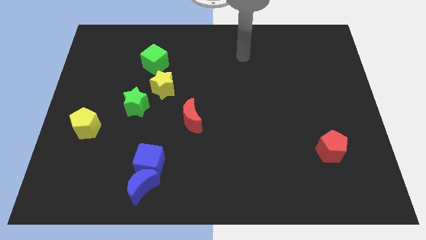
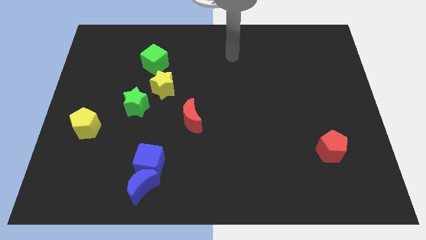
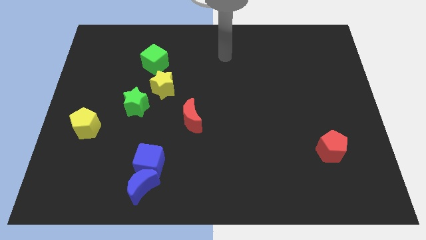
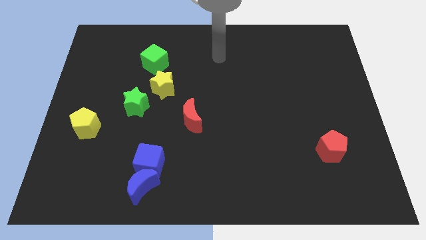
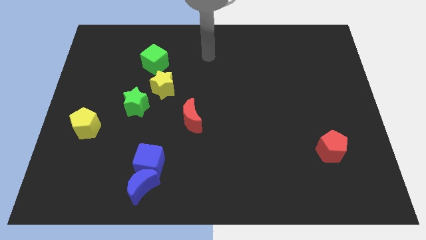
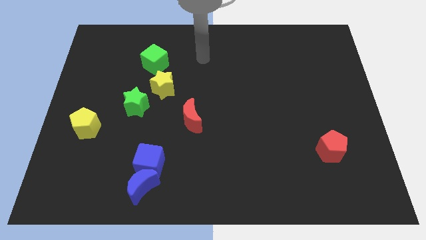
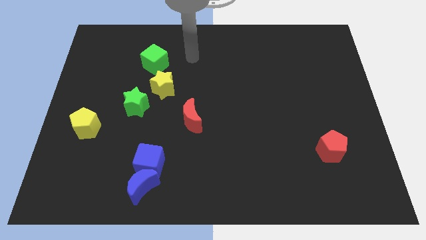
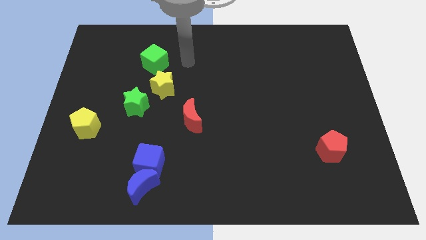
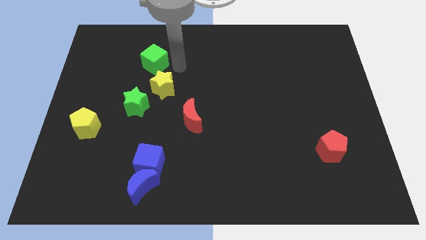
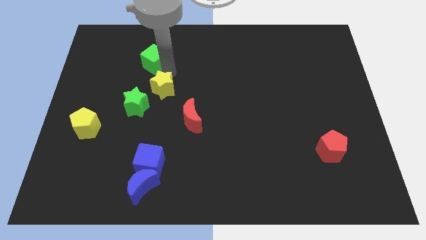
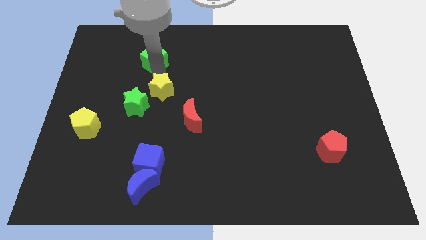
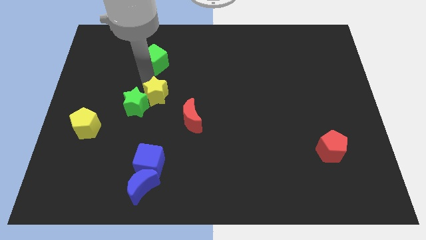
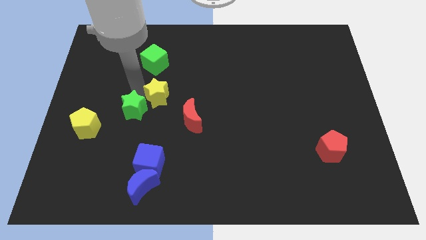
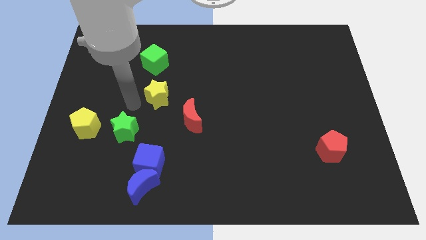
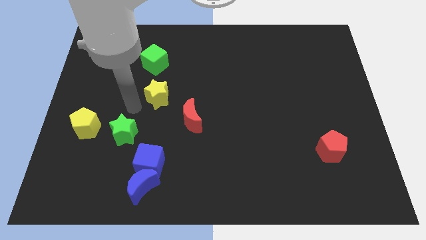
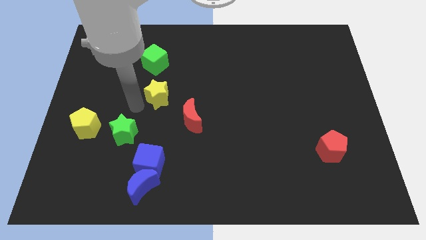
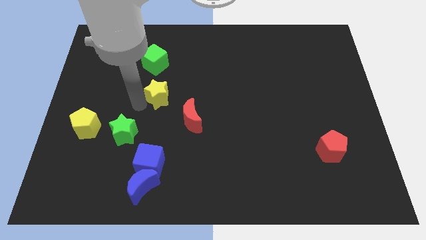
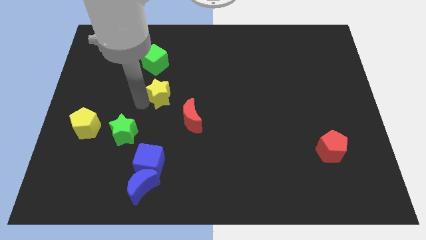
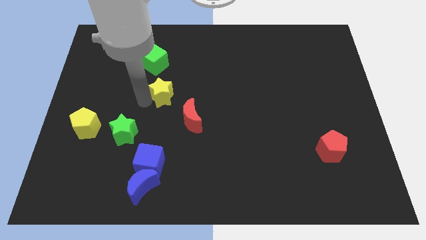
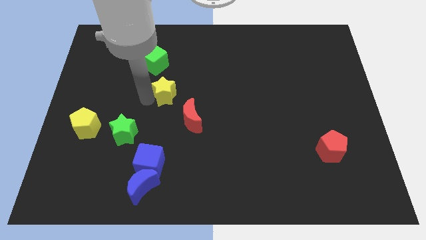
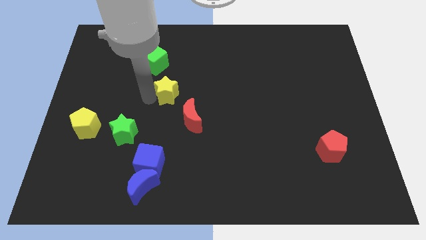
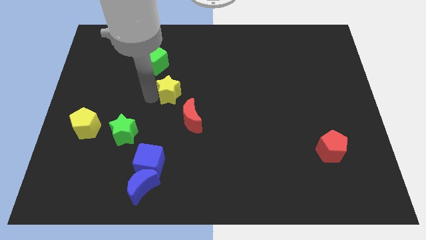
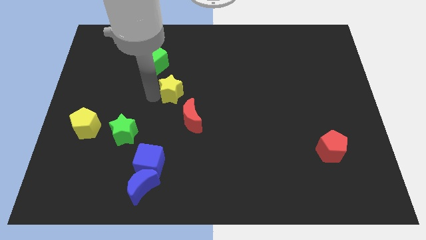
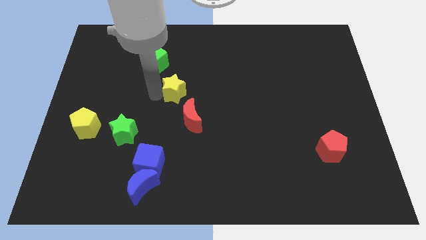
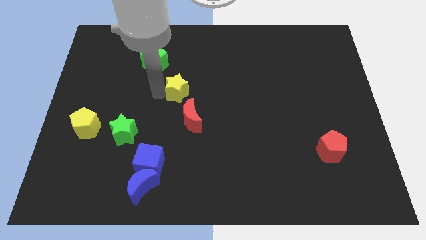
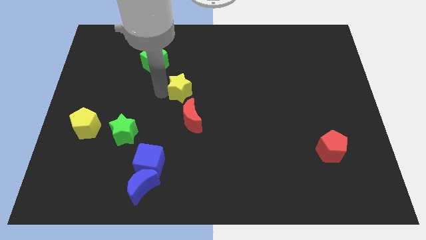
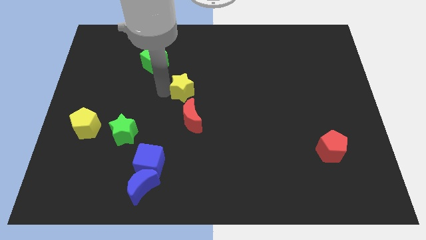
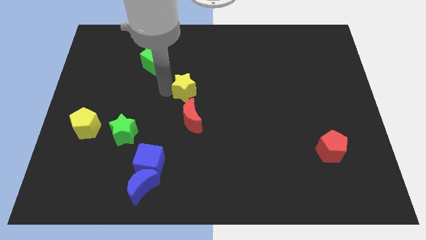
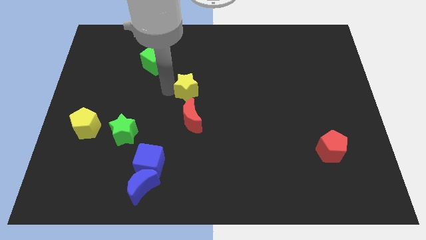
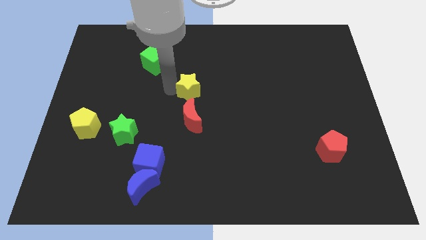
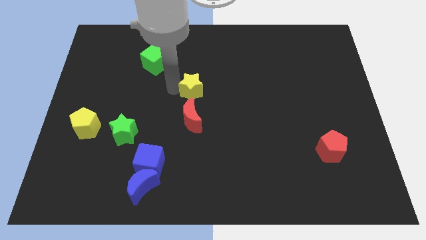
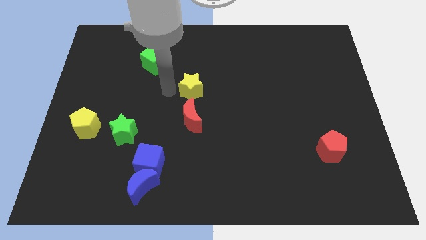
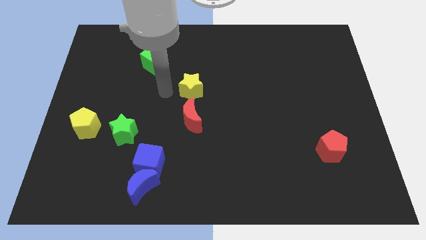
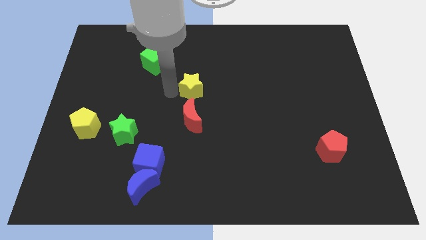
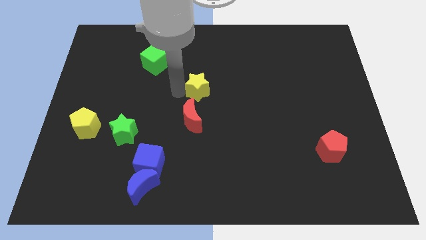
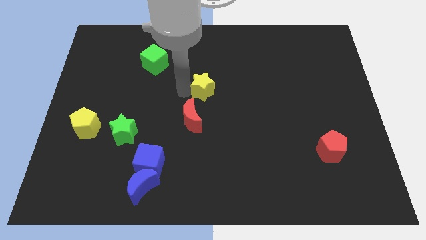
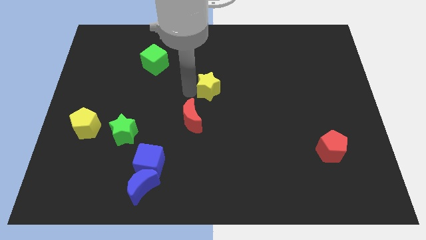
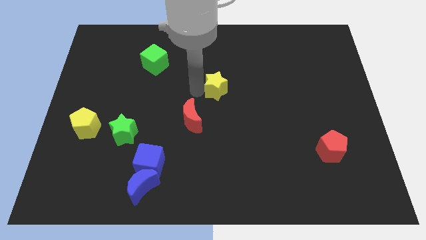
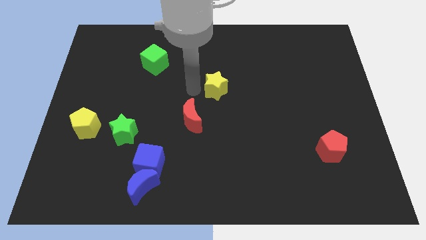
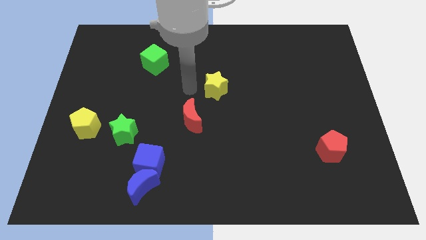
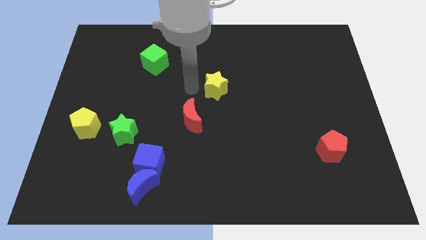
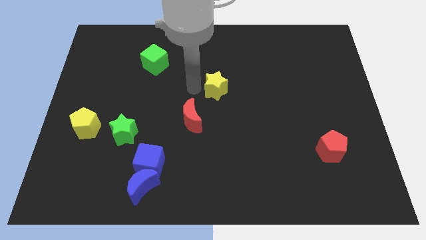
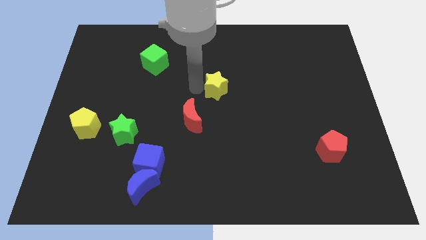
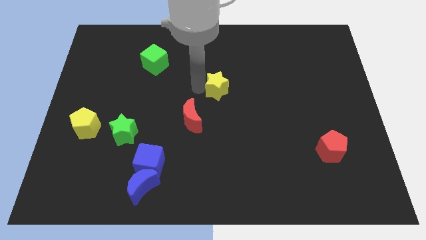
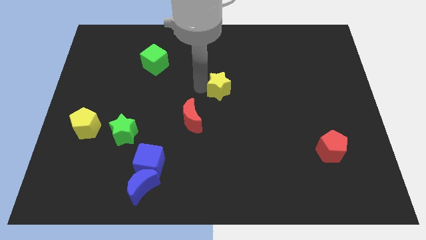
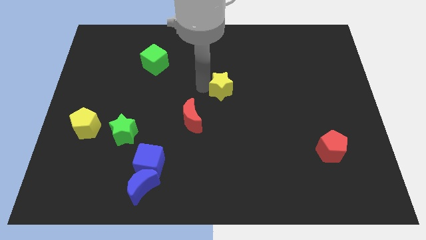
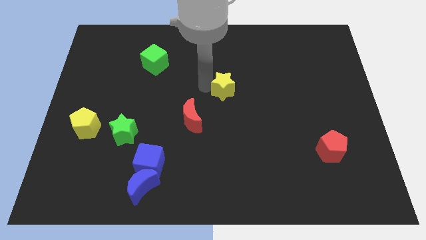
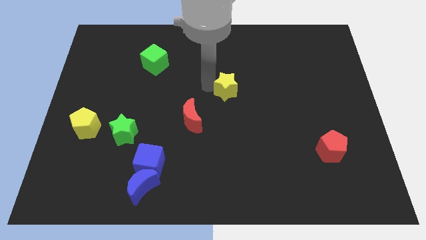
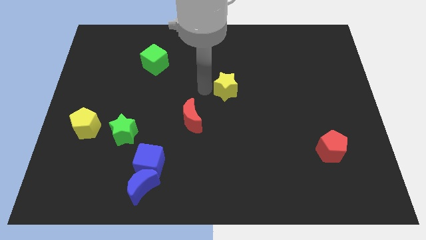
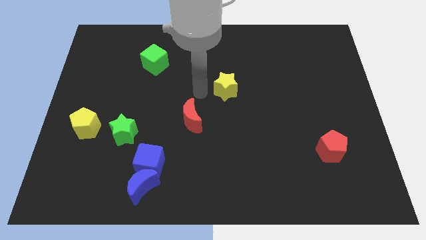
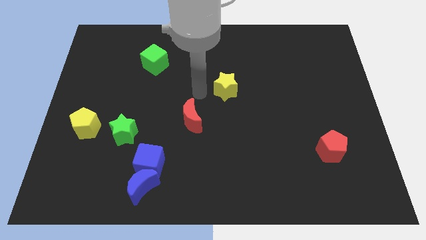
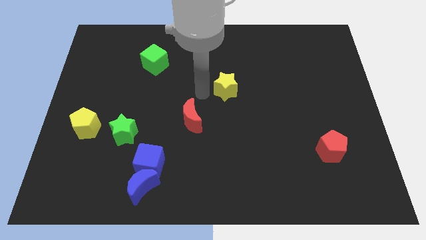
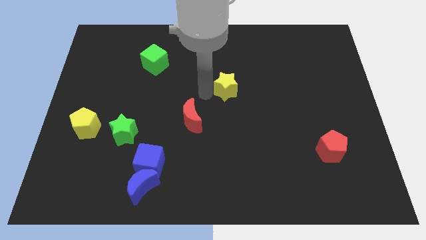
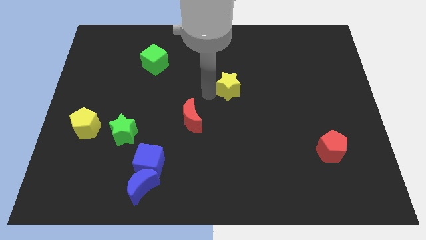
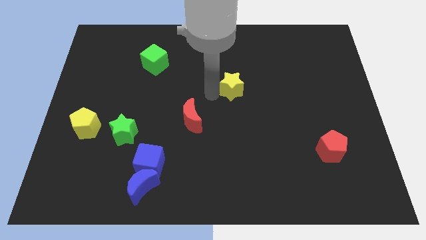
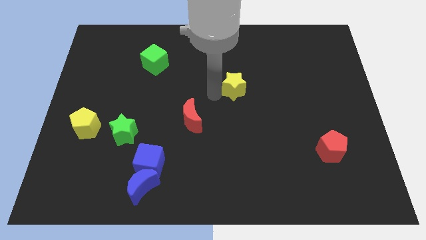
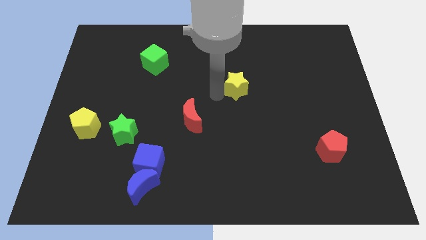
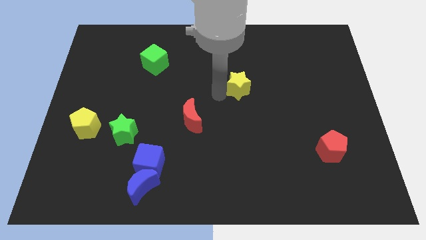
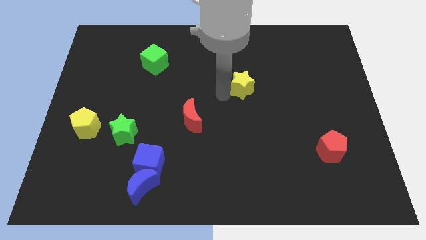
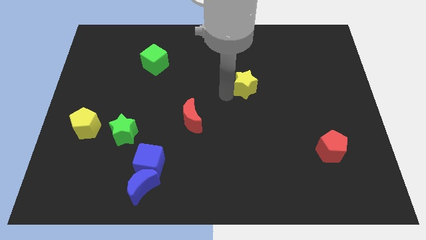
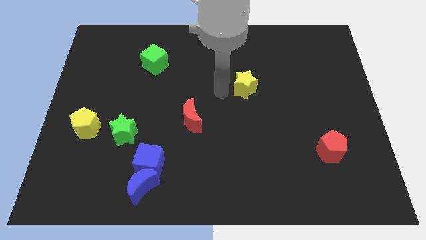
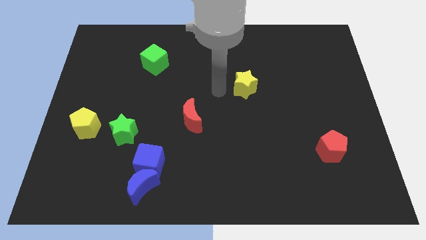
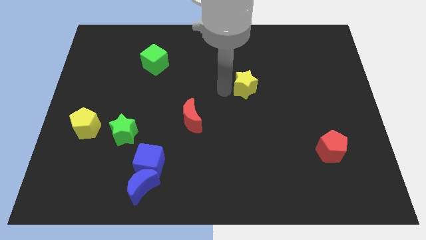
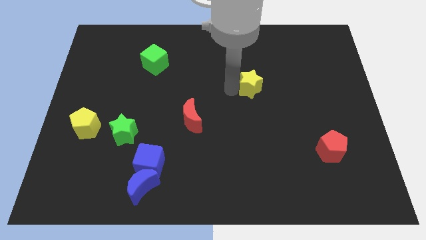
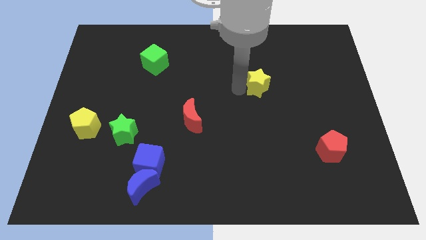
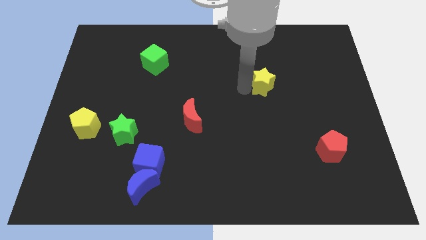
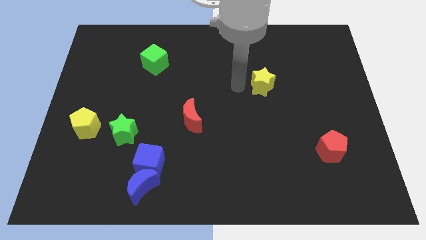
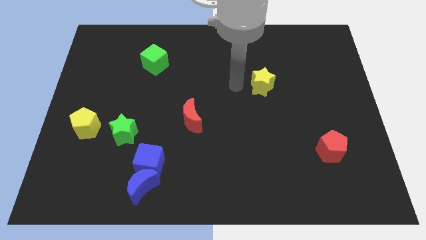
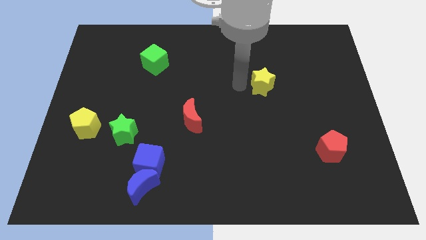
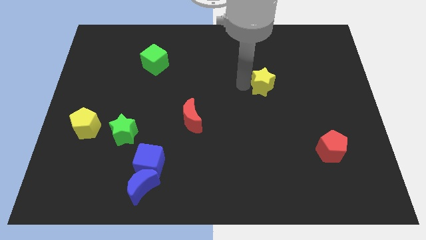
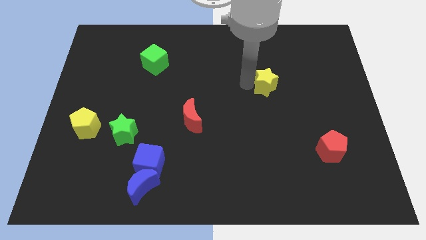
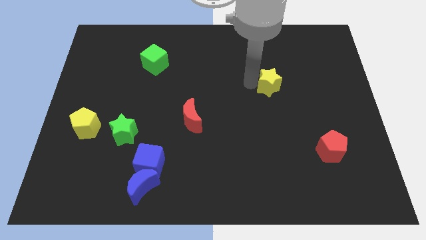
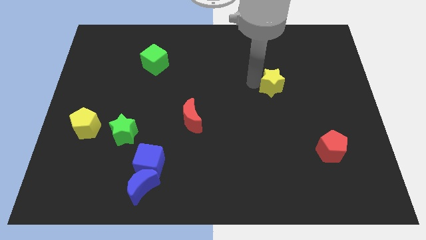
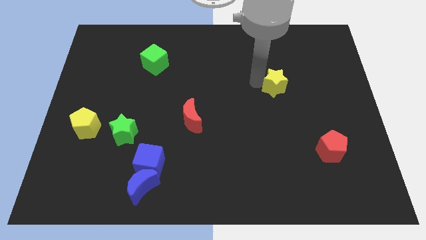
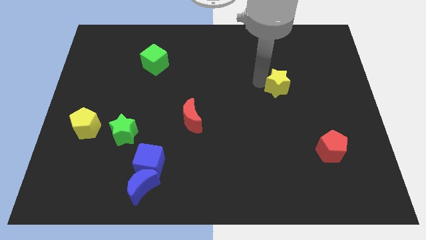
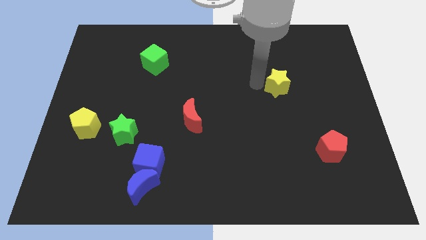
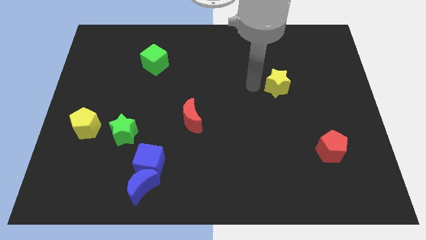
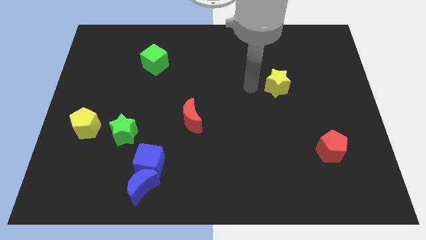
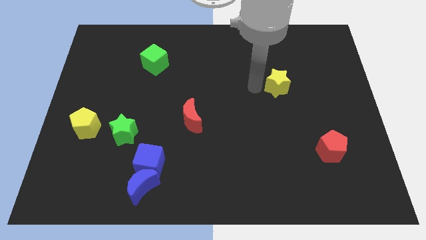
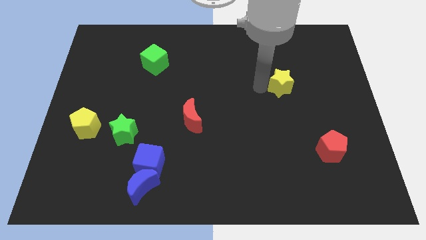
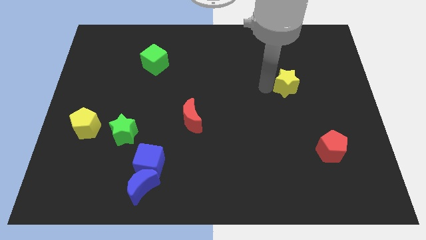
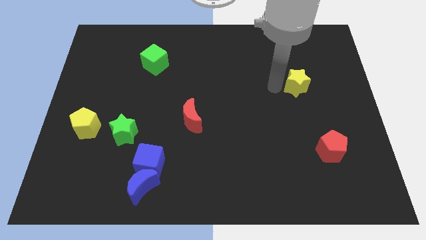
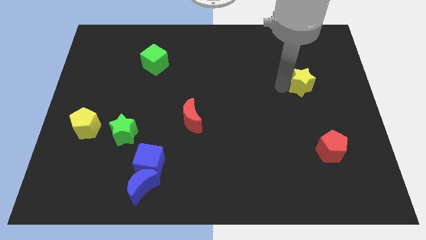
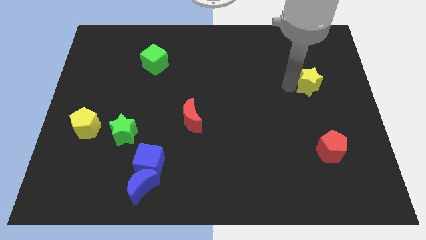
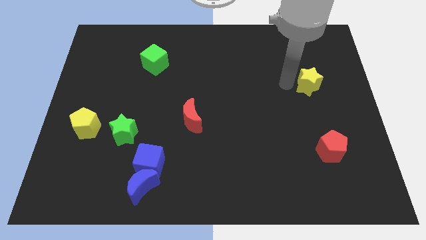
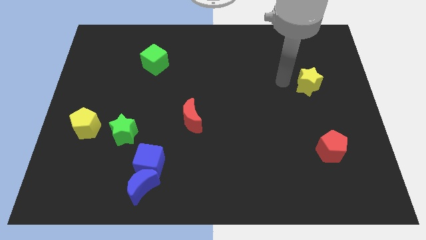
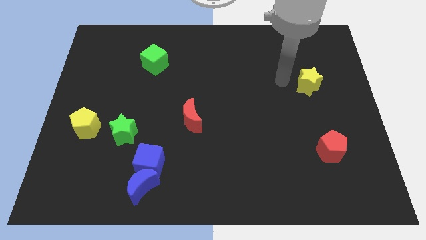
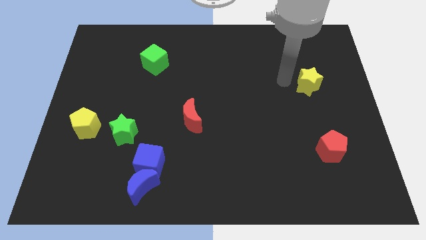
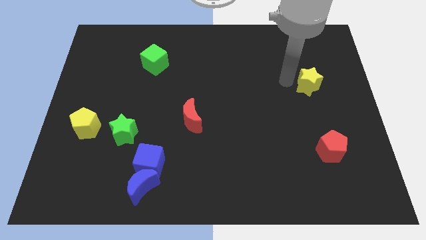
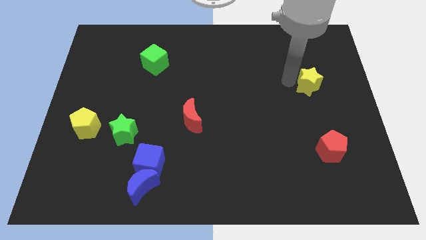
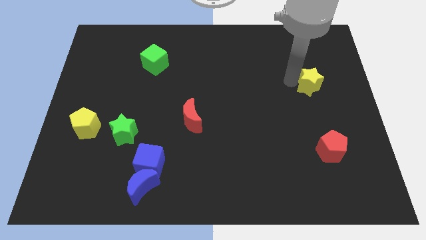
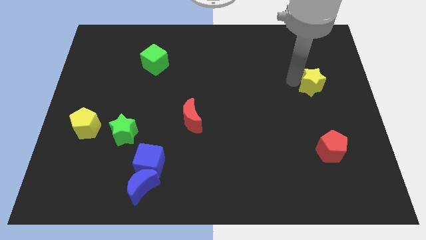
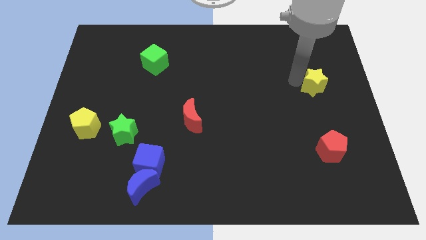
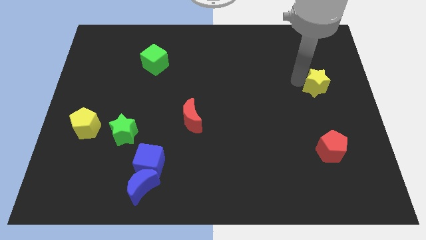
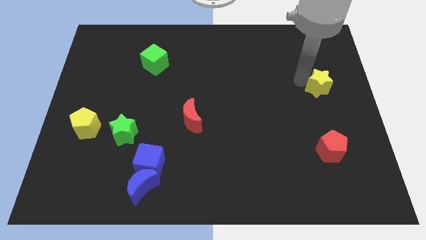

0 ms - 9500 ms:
push the yellow star to the right side
